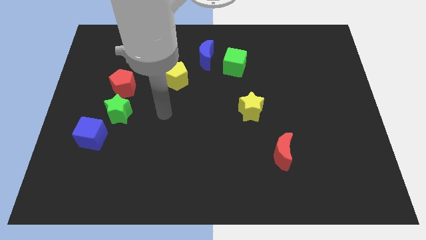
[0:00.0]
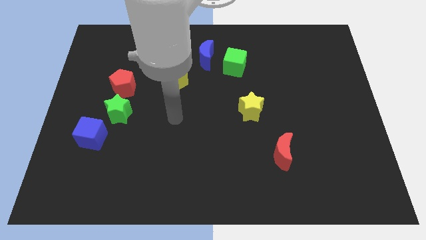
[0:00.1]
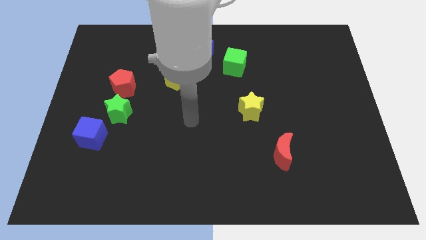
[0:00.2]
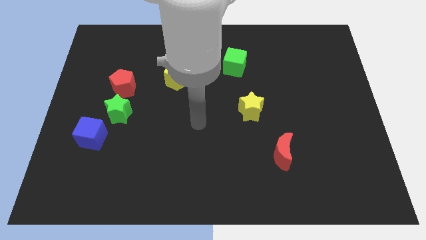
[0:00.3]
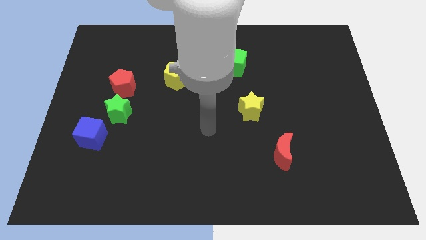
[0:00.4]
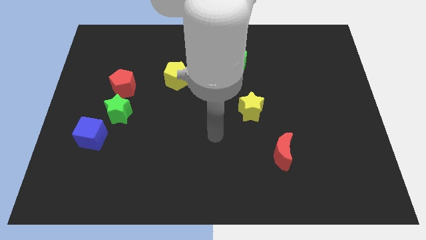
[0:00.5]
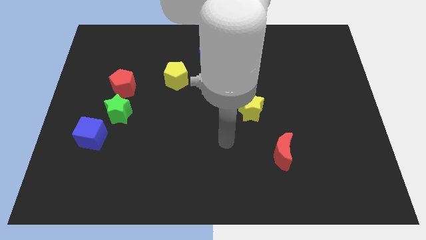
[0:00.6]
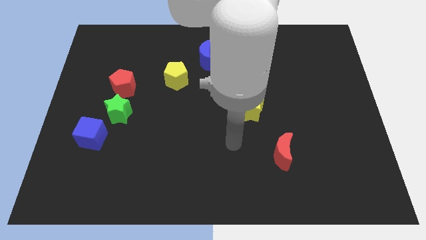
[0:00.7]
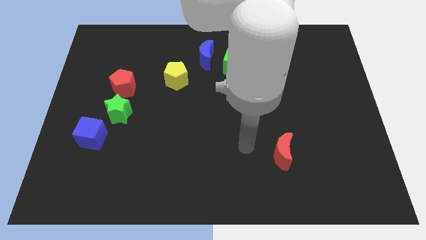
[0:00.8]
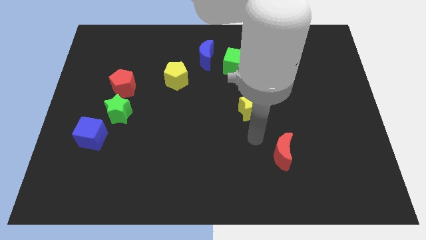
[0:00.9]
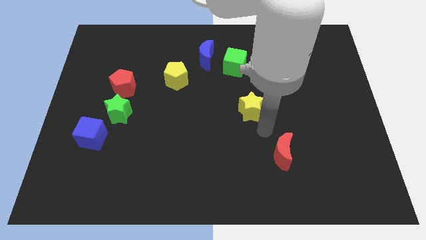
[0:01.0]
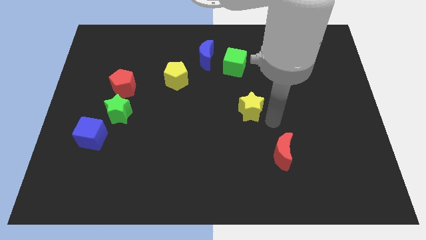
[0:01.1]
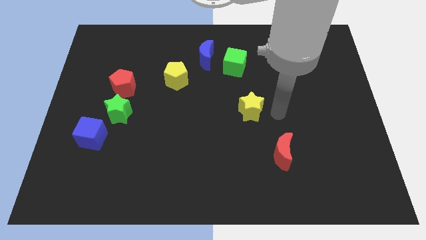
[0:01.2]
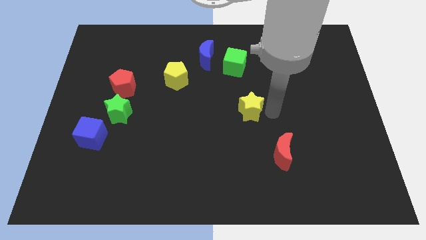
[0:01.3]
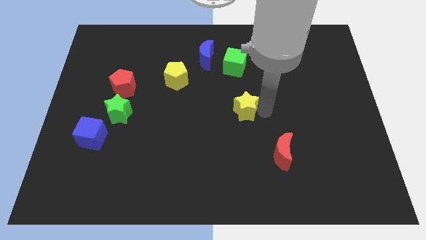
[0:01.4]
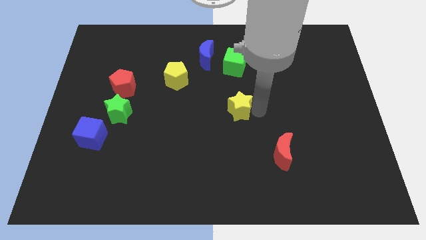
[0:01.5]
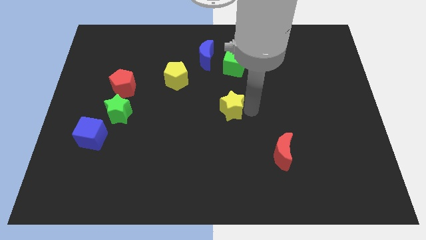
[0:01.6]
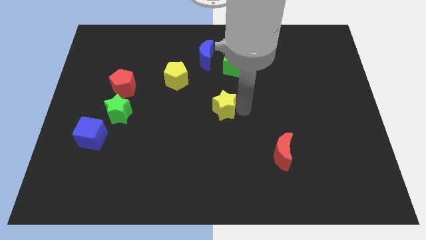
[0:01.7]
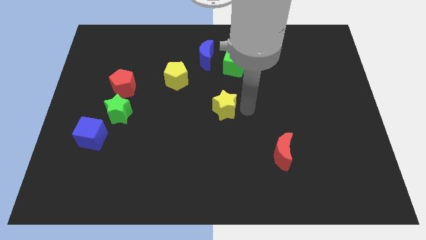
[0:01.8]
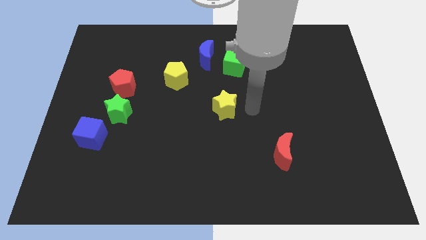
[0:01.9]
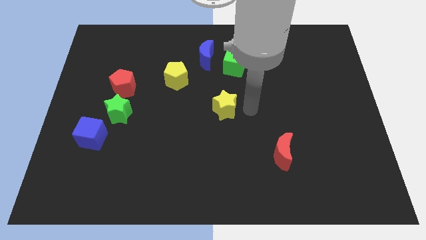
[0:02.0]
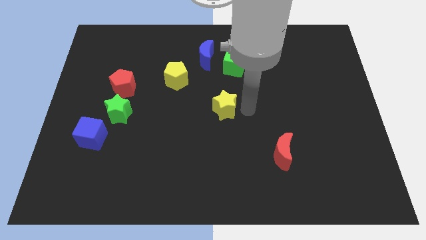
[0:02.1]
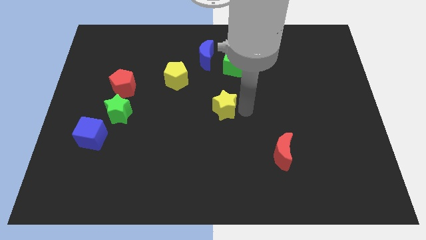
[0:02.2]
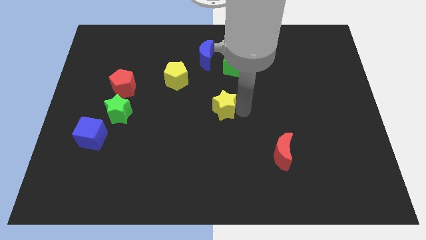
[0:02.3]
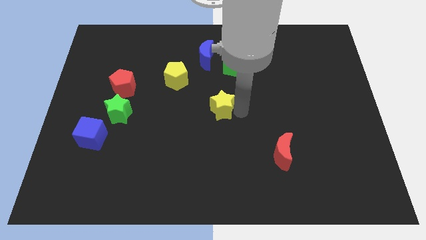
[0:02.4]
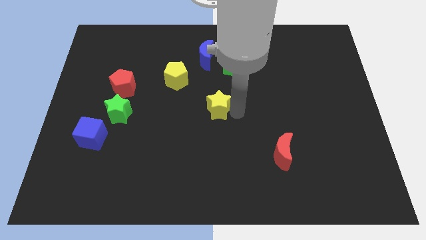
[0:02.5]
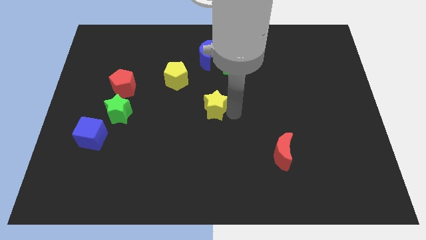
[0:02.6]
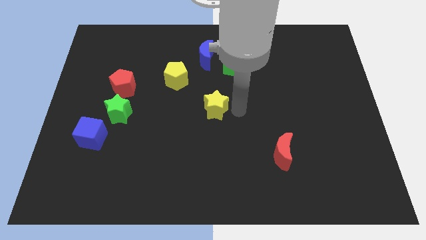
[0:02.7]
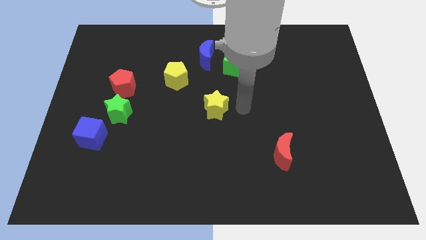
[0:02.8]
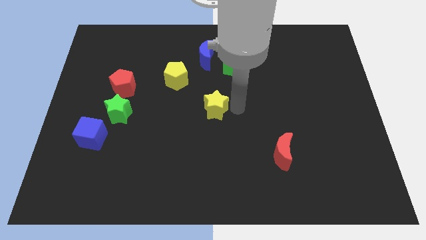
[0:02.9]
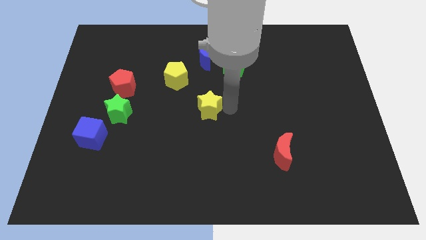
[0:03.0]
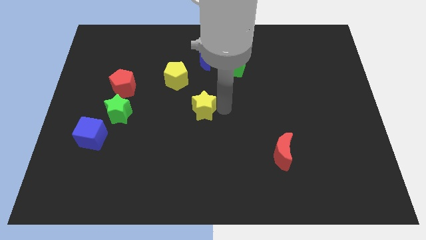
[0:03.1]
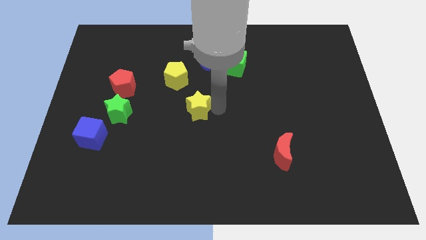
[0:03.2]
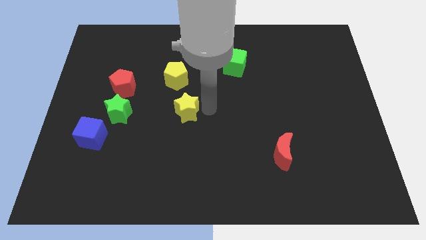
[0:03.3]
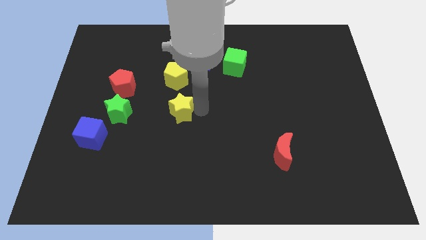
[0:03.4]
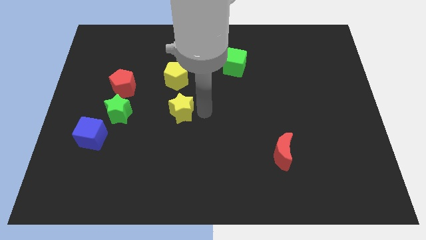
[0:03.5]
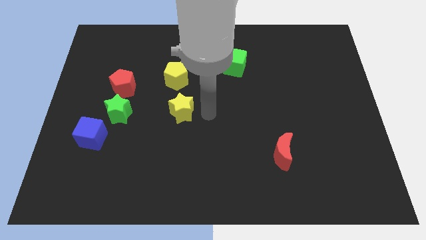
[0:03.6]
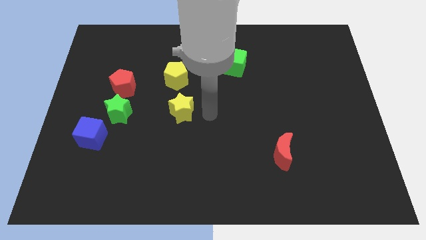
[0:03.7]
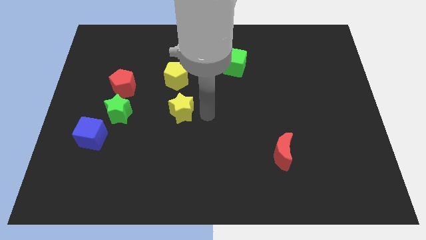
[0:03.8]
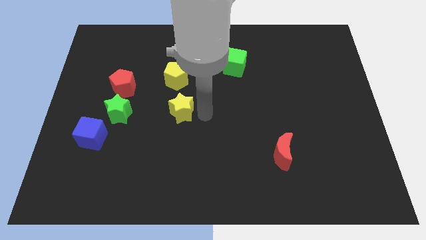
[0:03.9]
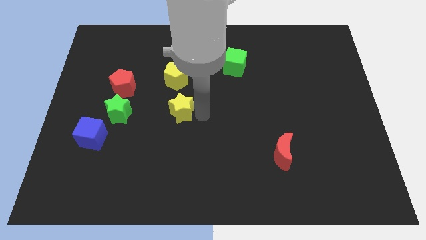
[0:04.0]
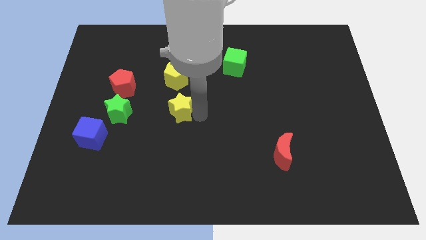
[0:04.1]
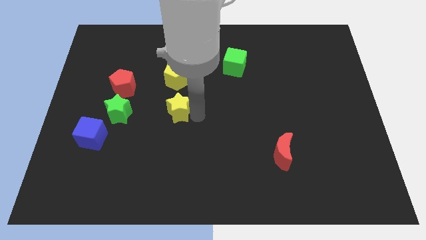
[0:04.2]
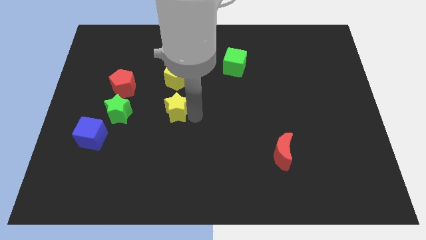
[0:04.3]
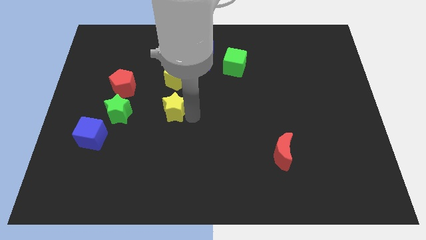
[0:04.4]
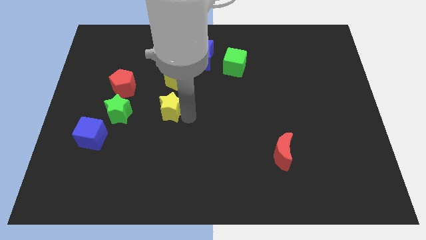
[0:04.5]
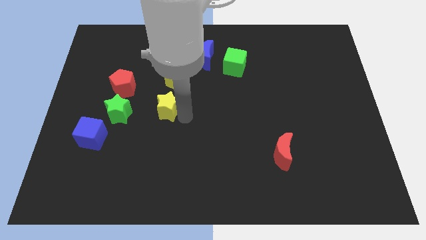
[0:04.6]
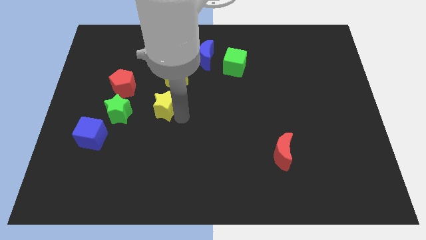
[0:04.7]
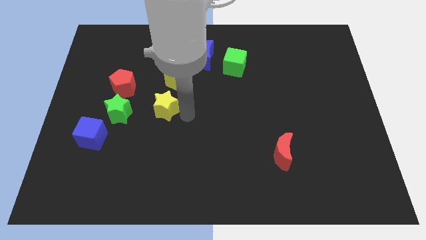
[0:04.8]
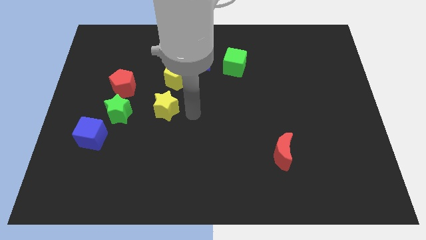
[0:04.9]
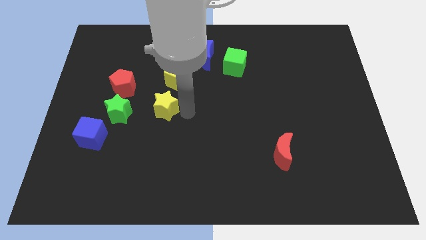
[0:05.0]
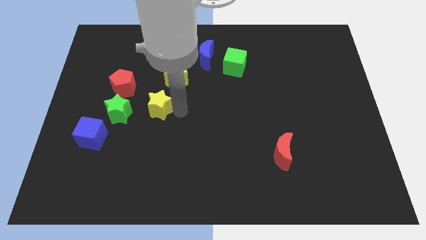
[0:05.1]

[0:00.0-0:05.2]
move the yellow star to the bottom right side of the red pentagon

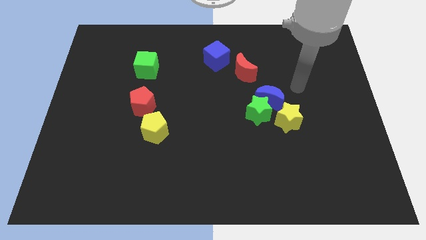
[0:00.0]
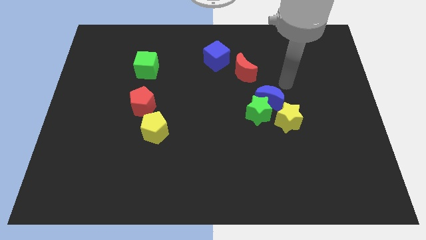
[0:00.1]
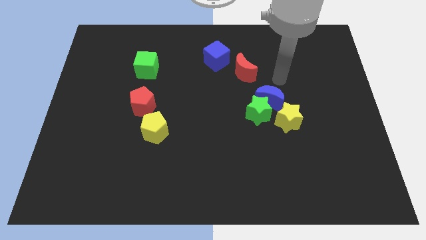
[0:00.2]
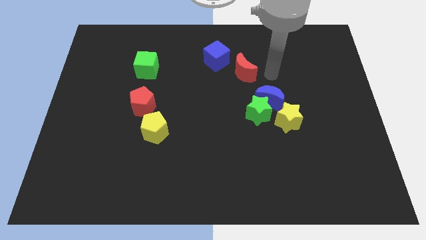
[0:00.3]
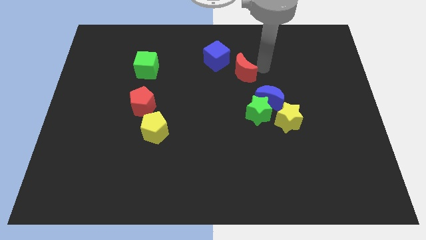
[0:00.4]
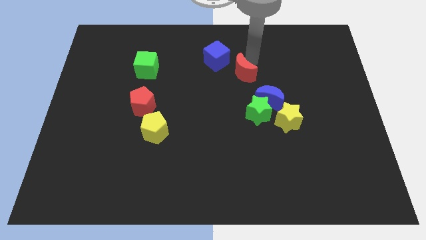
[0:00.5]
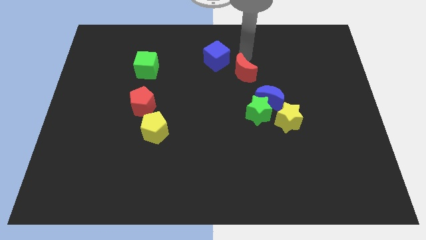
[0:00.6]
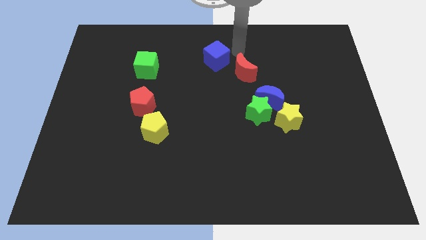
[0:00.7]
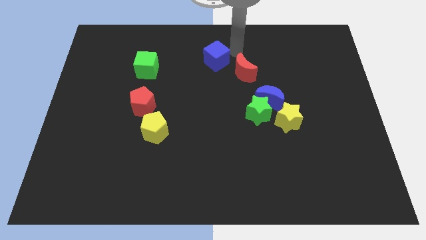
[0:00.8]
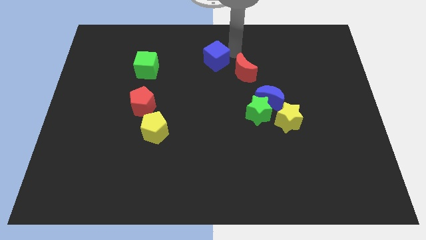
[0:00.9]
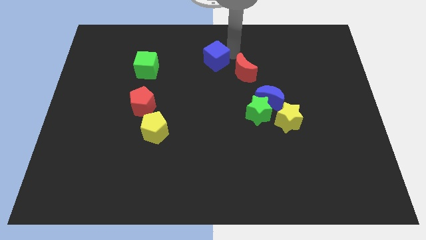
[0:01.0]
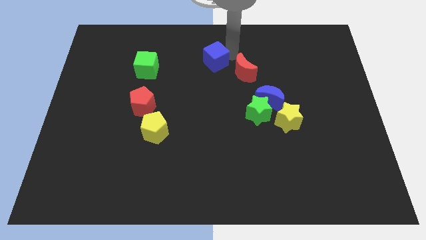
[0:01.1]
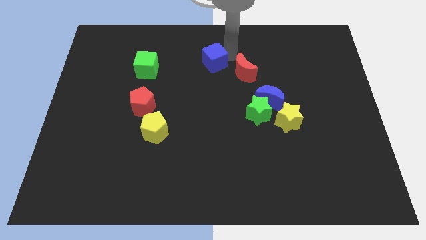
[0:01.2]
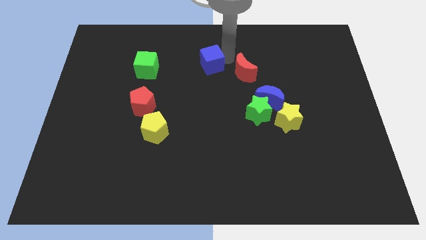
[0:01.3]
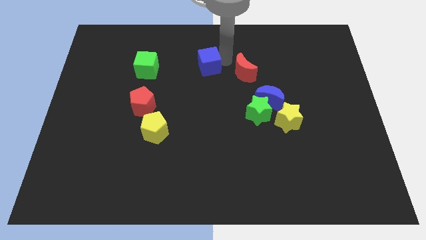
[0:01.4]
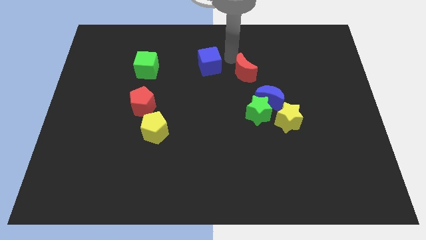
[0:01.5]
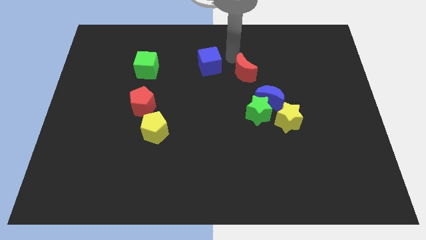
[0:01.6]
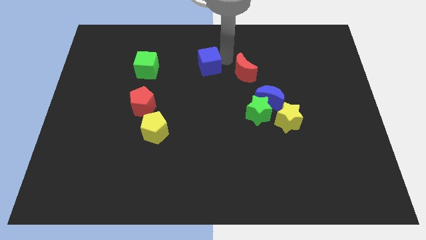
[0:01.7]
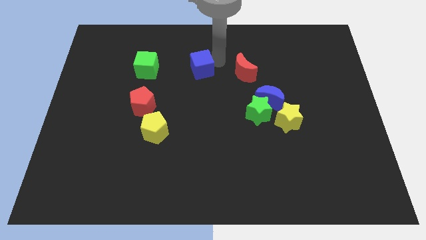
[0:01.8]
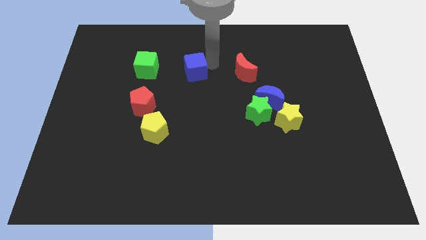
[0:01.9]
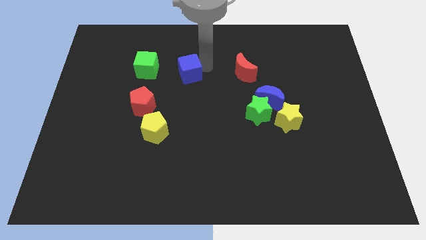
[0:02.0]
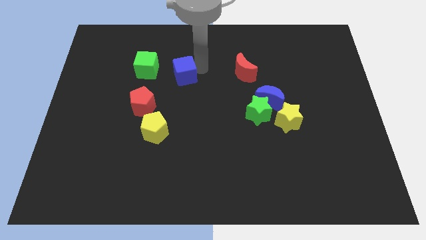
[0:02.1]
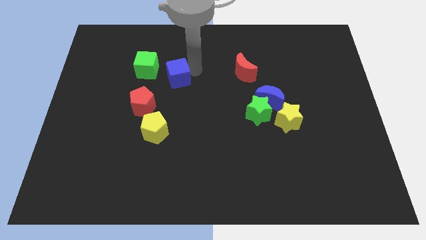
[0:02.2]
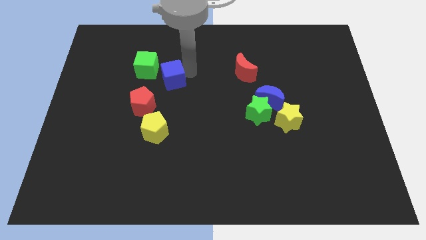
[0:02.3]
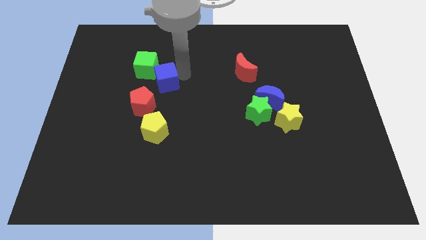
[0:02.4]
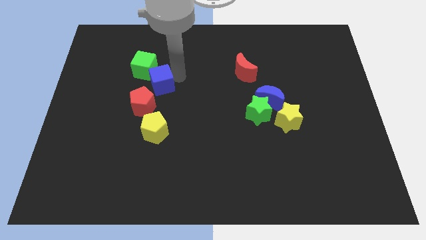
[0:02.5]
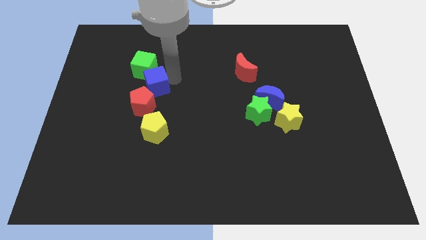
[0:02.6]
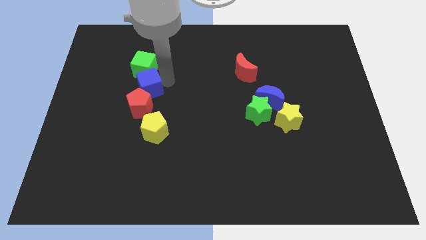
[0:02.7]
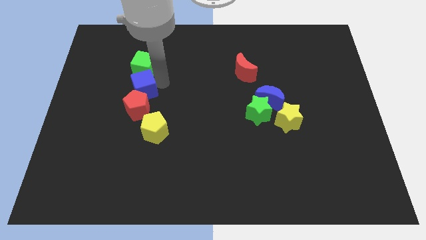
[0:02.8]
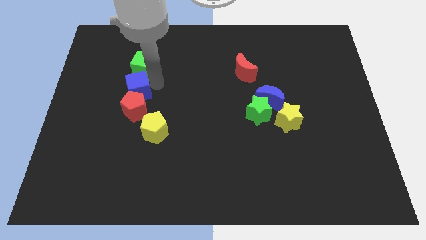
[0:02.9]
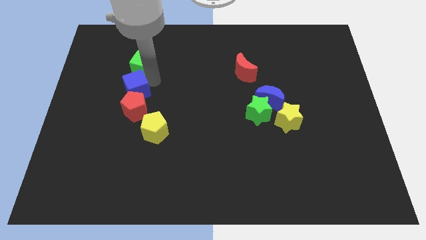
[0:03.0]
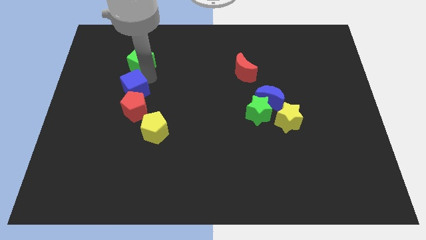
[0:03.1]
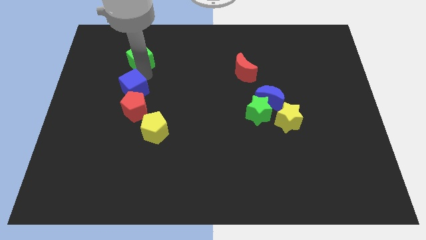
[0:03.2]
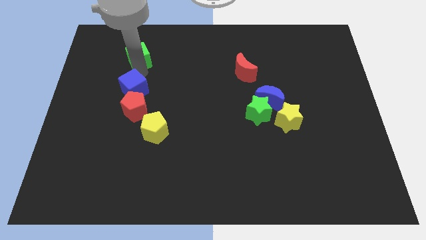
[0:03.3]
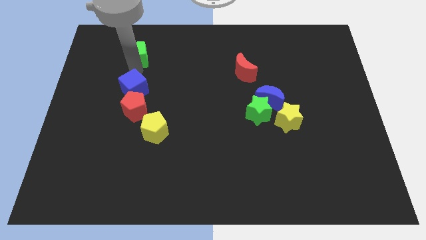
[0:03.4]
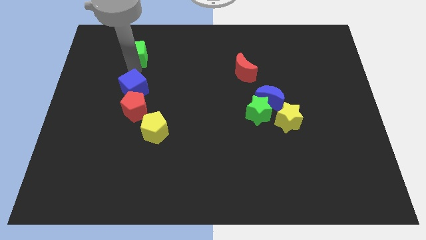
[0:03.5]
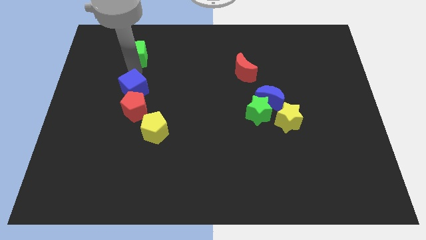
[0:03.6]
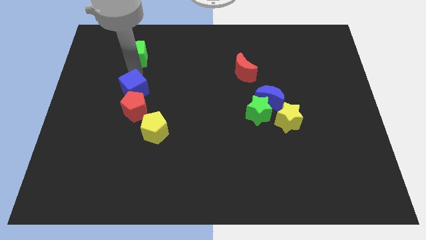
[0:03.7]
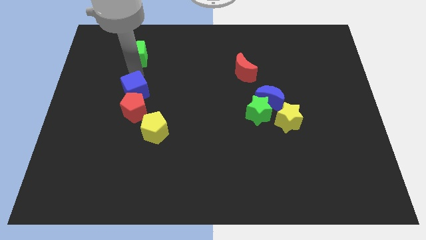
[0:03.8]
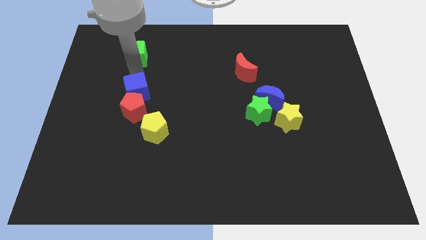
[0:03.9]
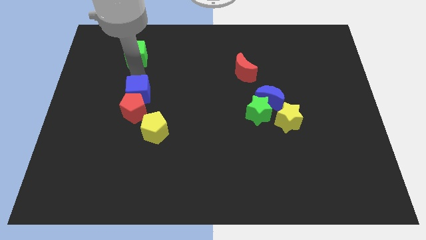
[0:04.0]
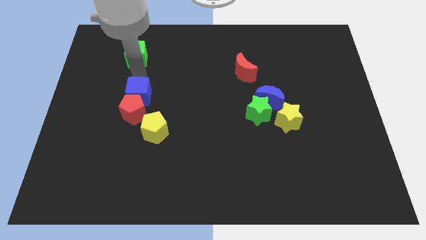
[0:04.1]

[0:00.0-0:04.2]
move the blue cube to the top left of the yellow pentagon
